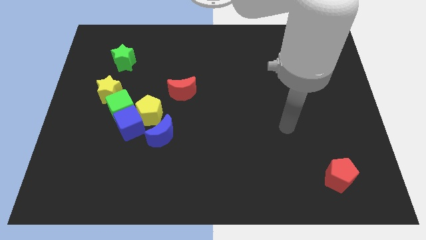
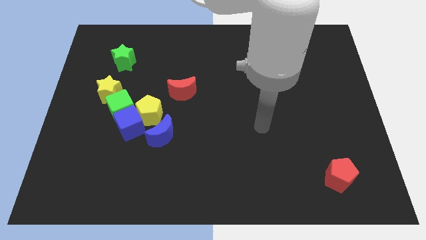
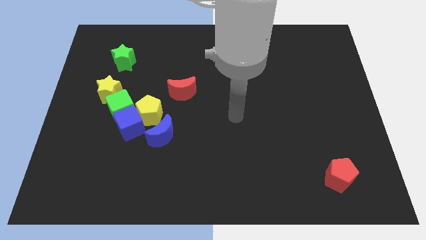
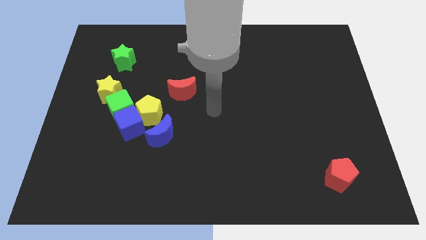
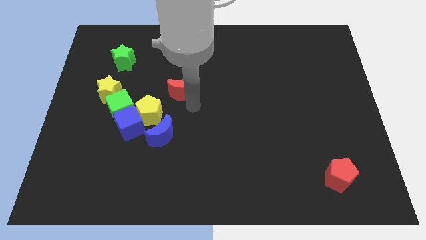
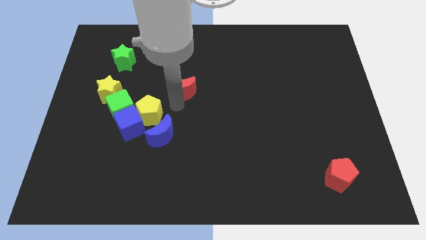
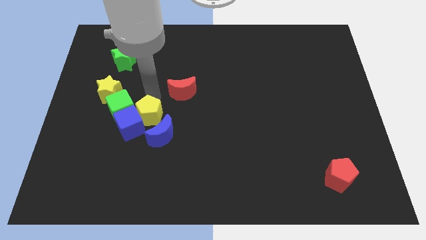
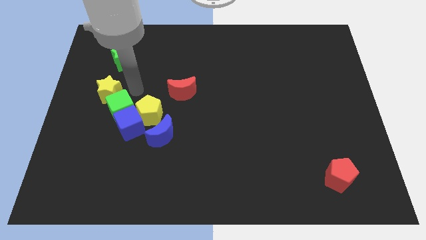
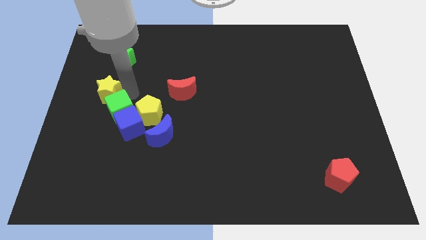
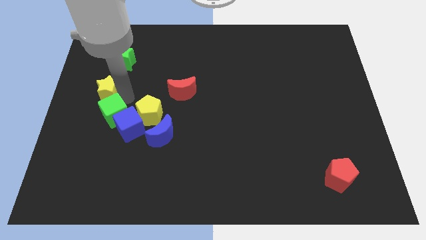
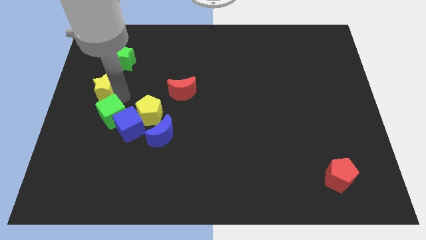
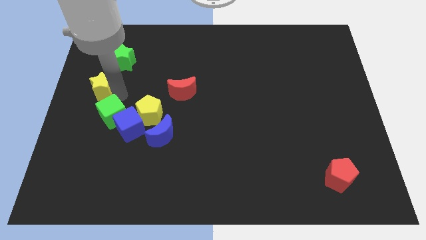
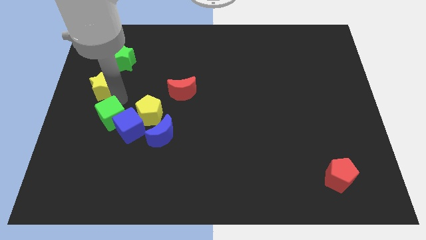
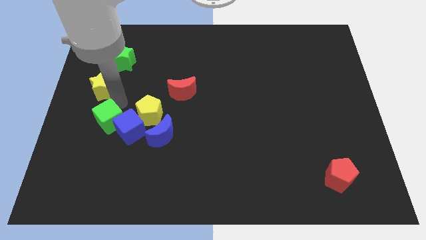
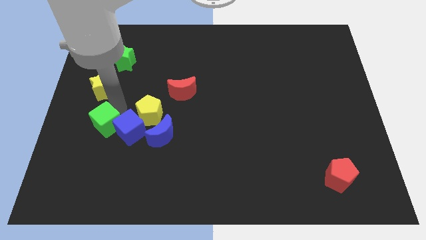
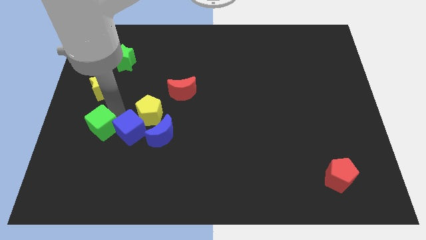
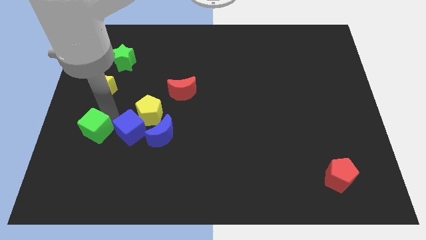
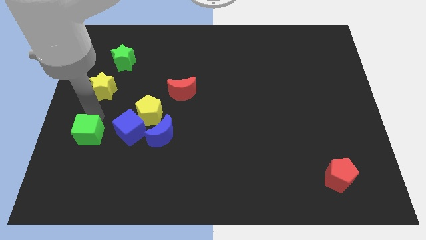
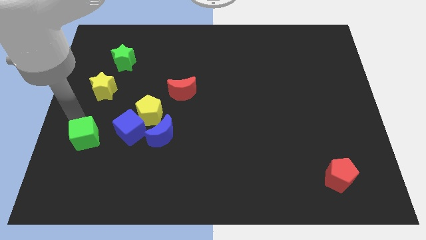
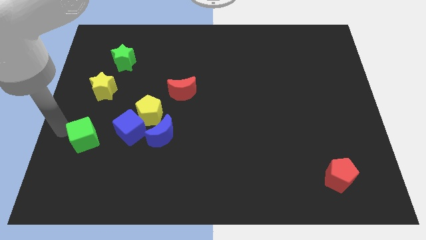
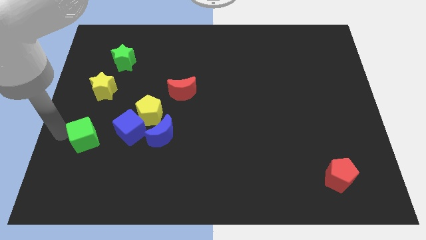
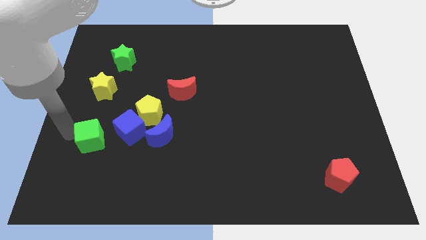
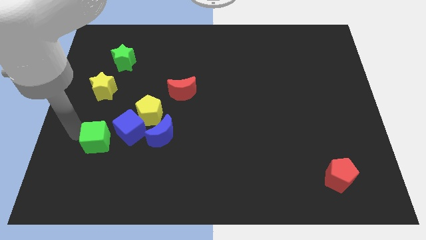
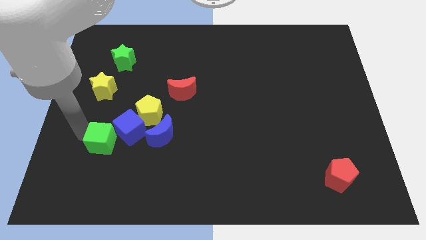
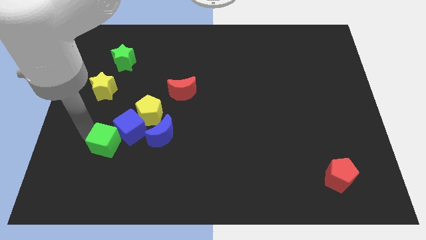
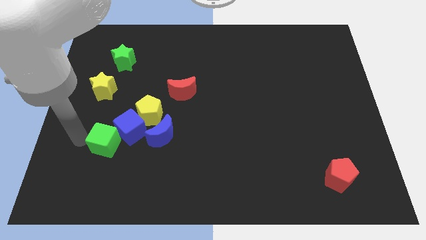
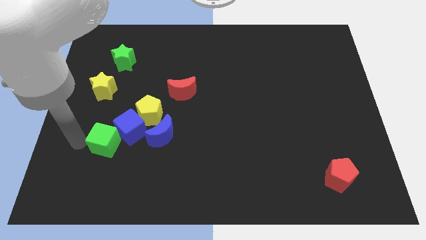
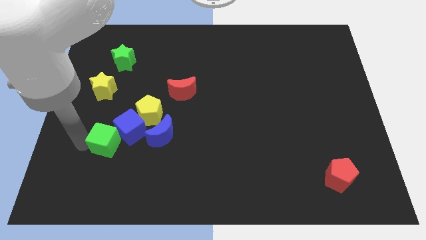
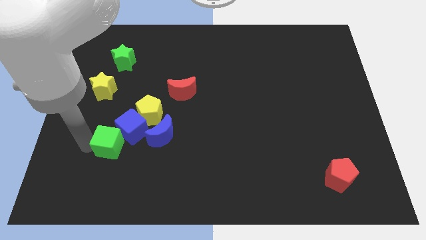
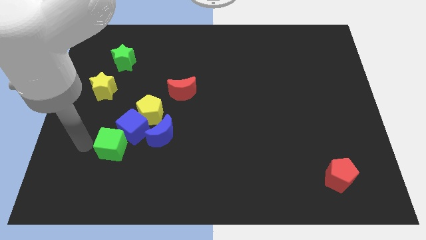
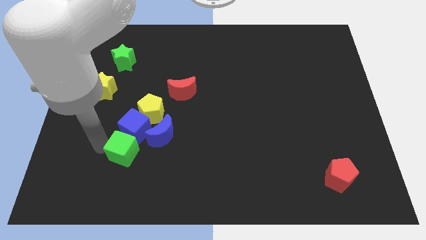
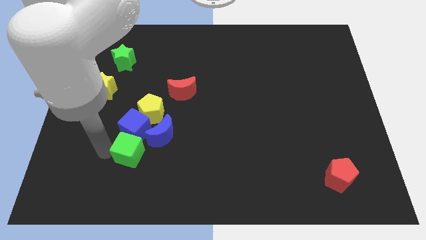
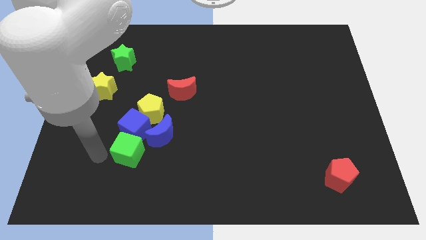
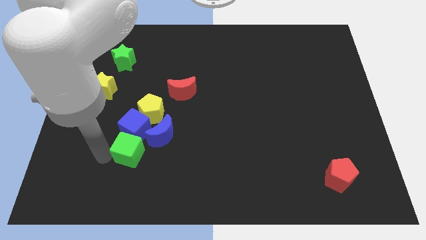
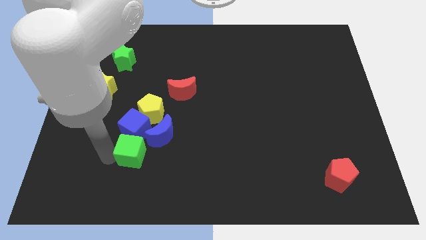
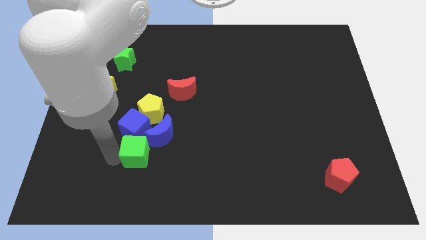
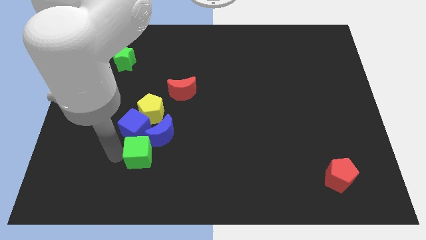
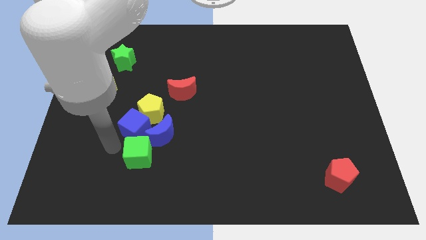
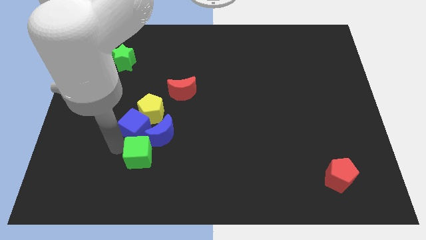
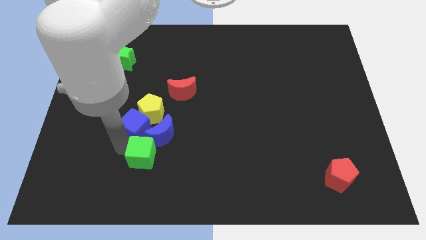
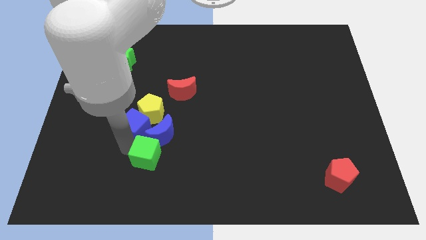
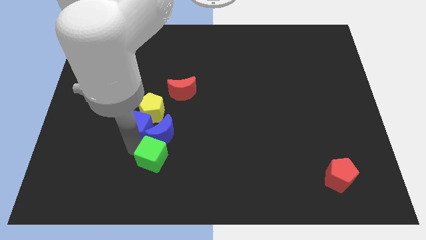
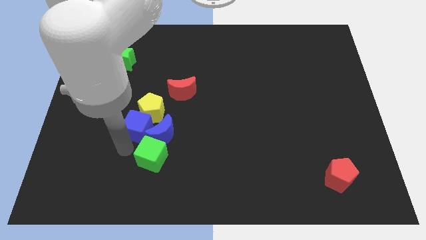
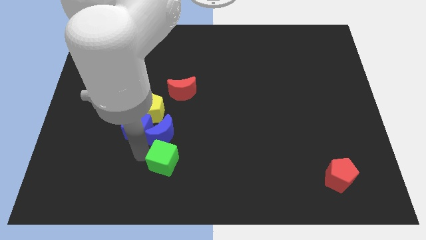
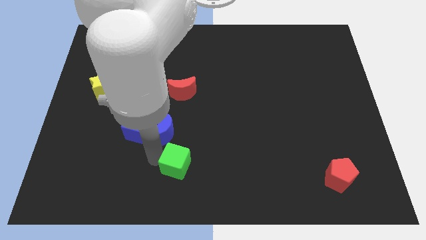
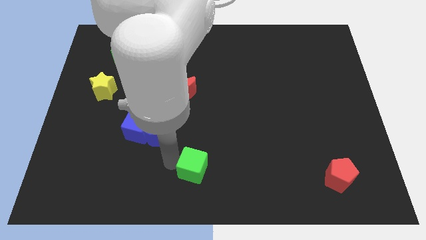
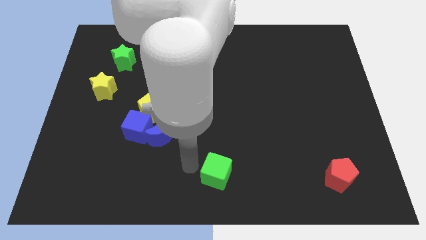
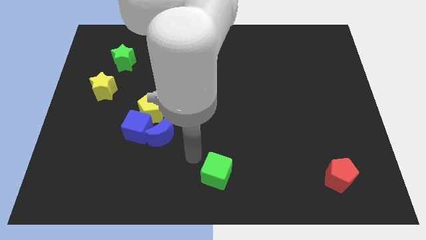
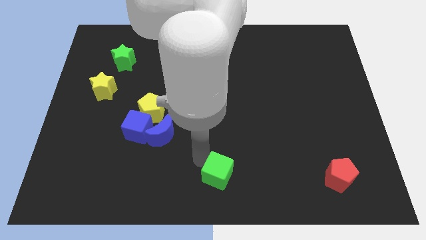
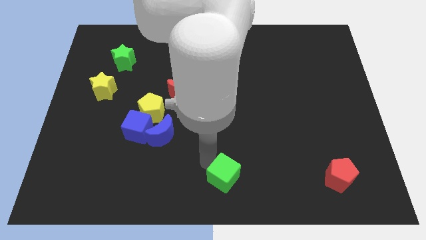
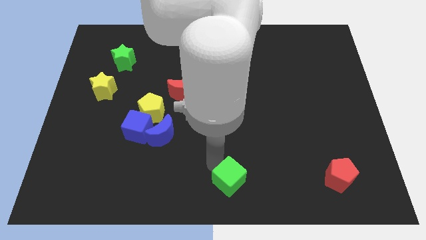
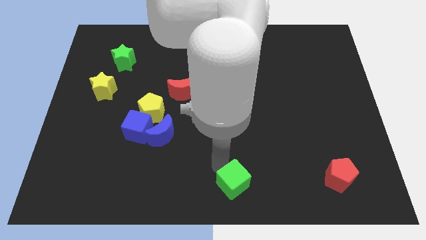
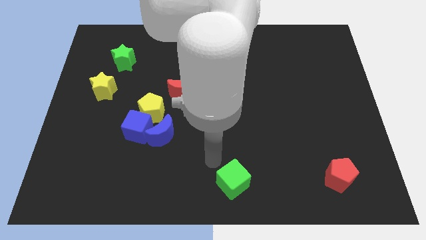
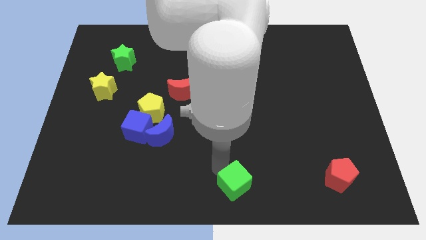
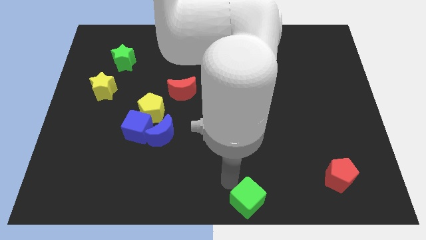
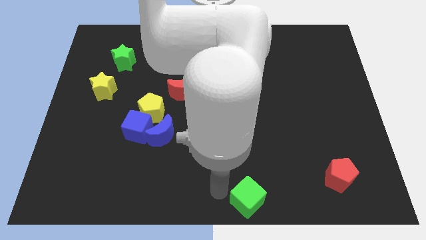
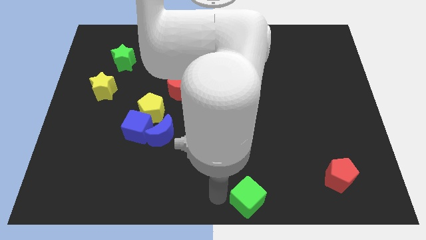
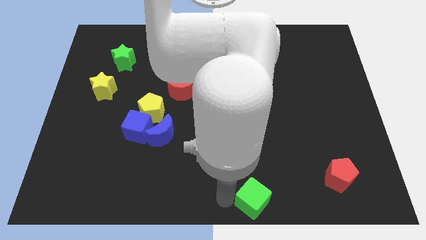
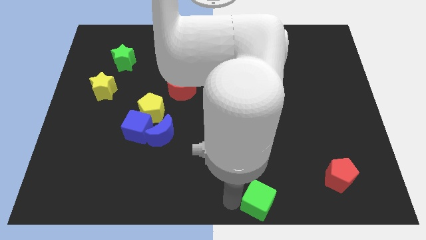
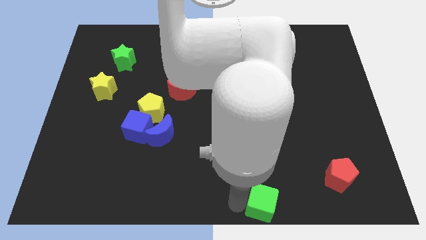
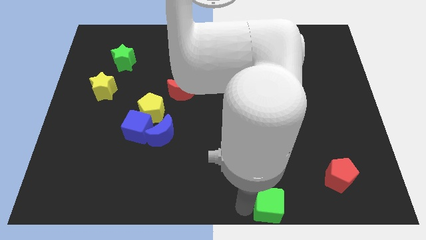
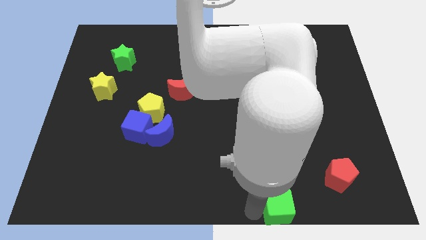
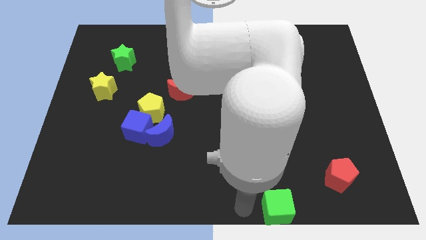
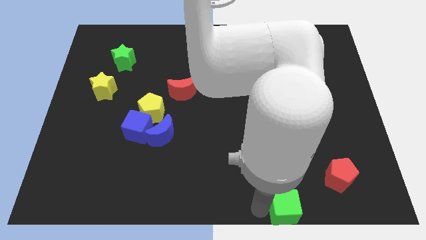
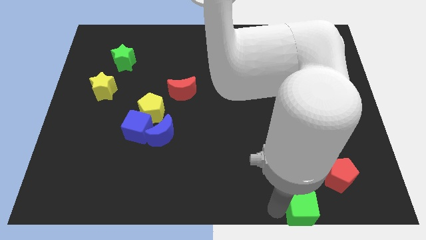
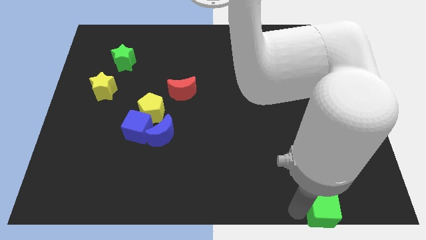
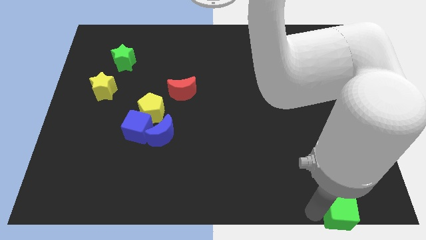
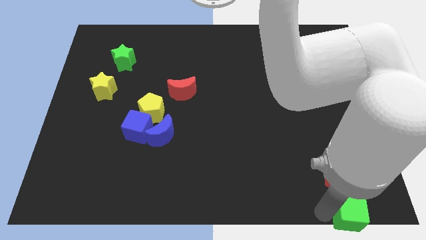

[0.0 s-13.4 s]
slide the green cube to the lower right corner
